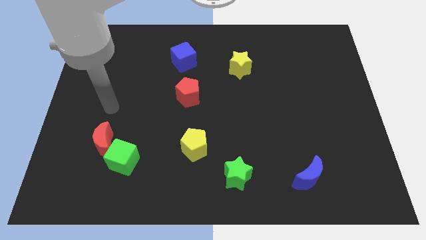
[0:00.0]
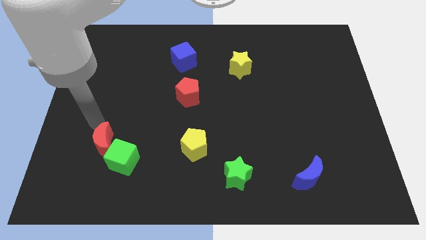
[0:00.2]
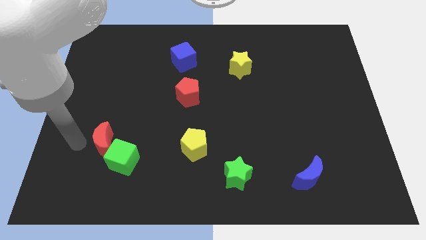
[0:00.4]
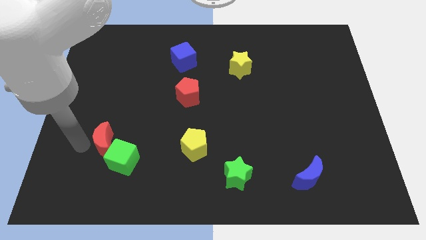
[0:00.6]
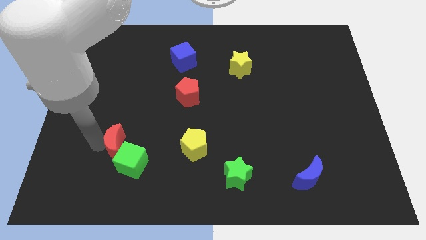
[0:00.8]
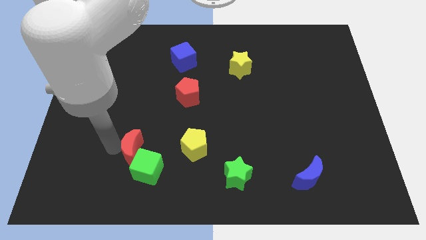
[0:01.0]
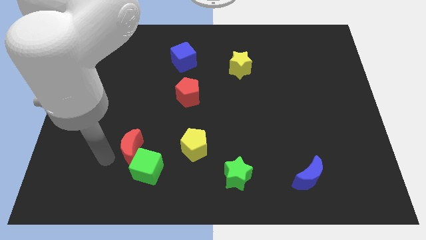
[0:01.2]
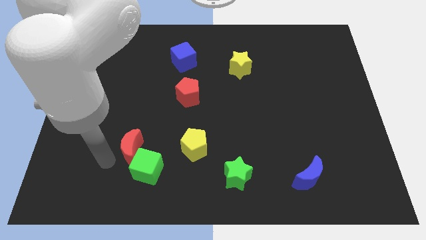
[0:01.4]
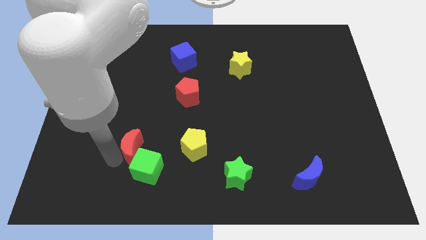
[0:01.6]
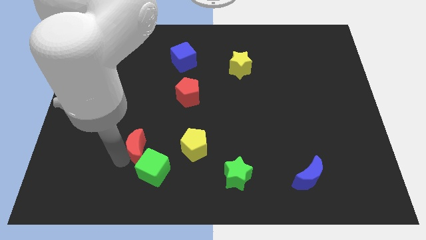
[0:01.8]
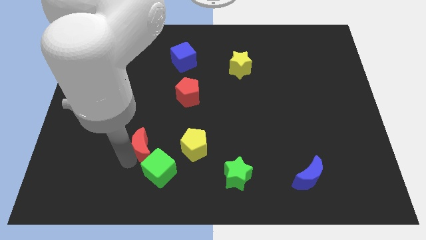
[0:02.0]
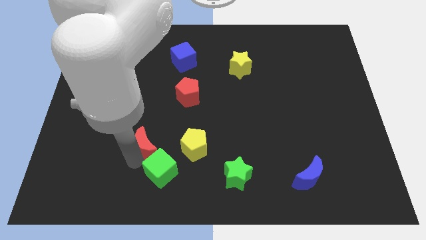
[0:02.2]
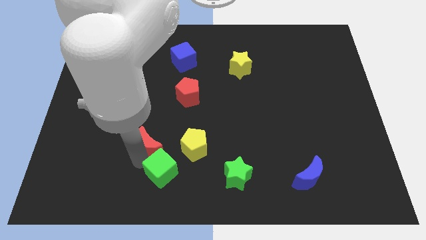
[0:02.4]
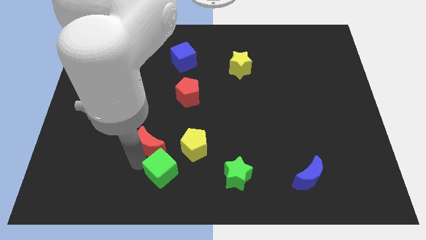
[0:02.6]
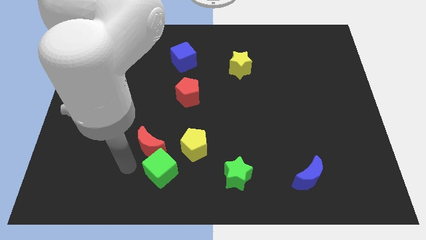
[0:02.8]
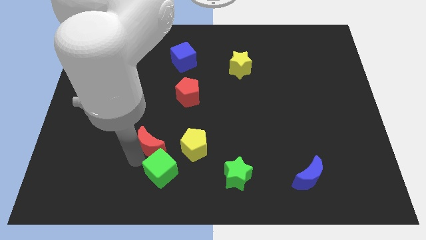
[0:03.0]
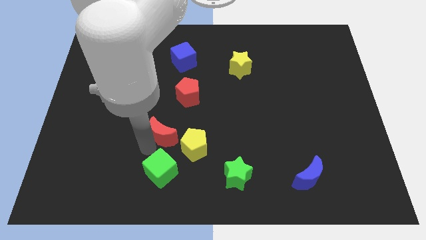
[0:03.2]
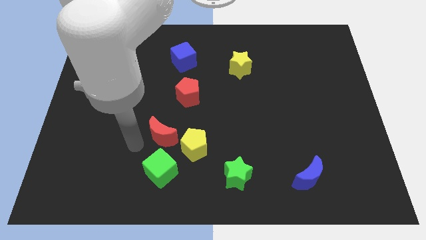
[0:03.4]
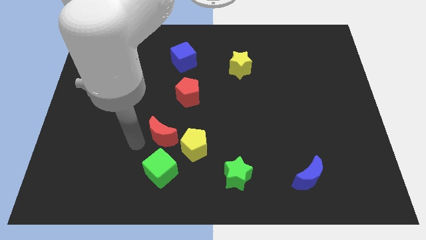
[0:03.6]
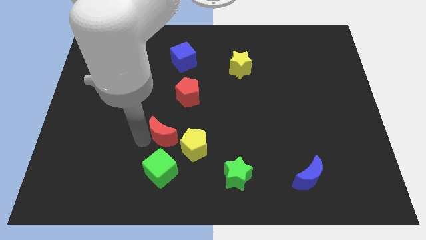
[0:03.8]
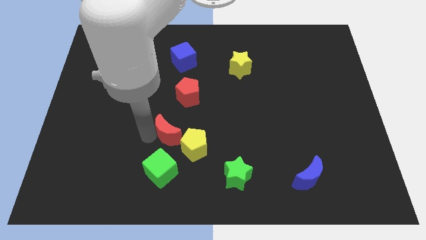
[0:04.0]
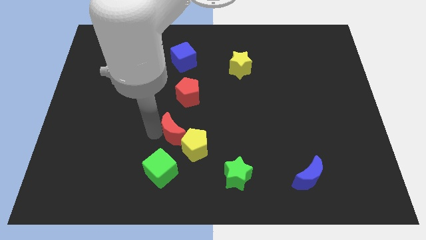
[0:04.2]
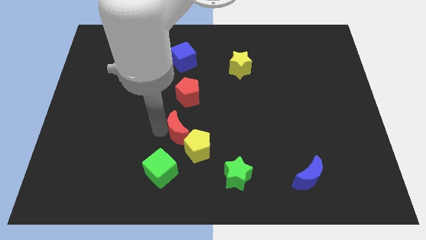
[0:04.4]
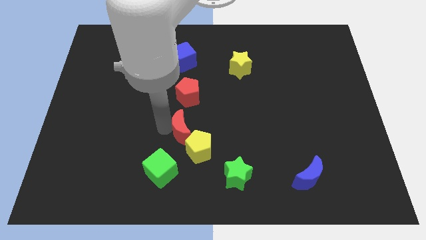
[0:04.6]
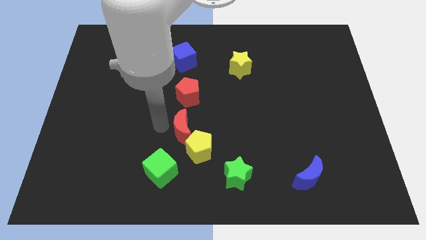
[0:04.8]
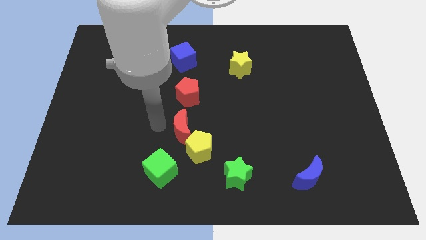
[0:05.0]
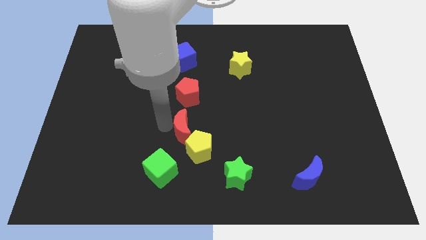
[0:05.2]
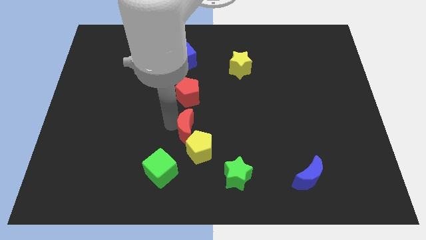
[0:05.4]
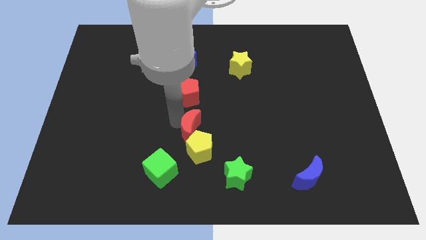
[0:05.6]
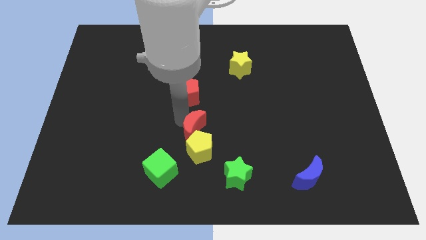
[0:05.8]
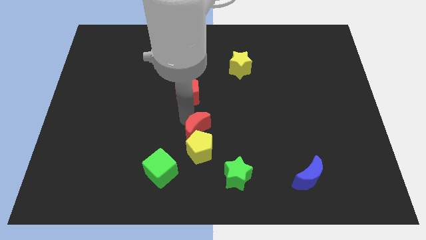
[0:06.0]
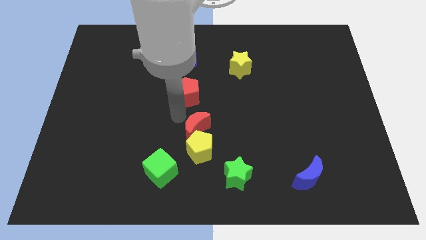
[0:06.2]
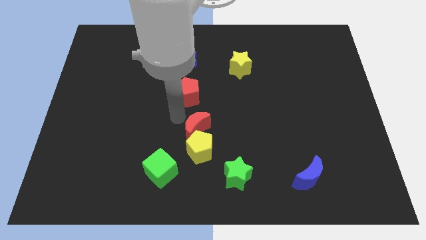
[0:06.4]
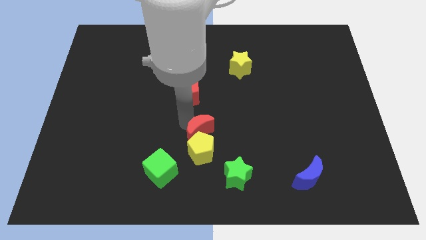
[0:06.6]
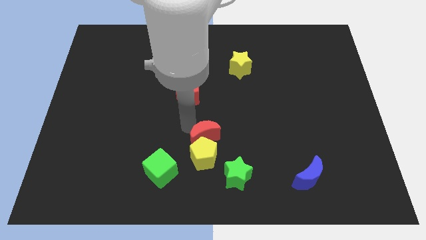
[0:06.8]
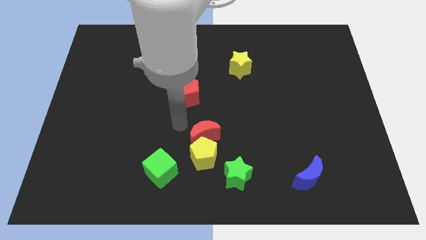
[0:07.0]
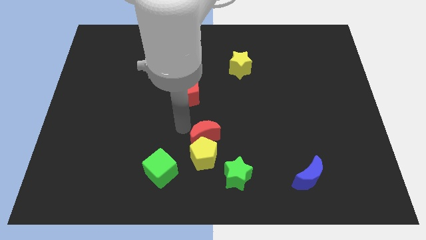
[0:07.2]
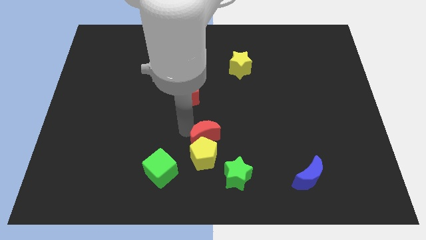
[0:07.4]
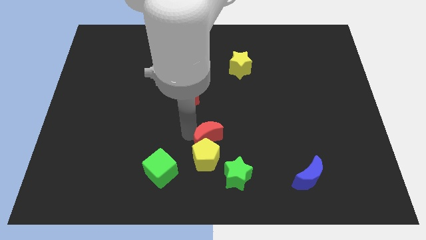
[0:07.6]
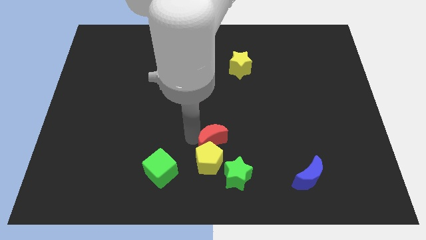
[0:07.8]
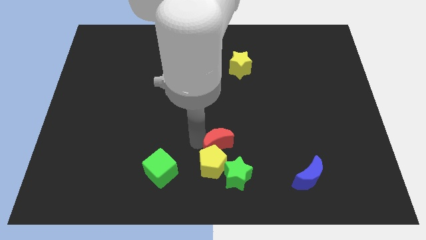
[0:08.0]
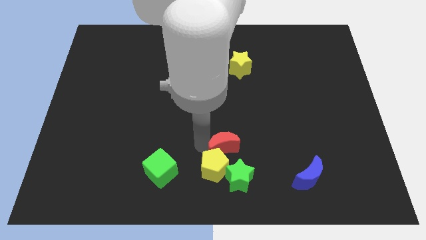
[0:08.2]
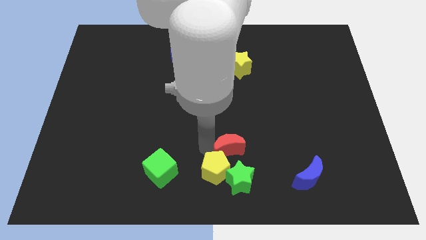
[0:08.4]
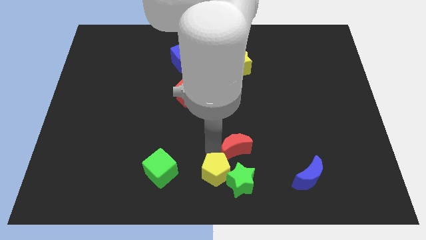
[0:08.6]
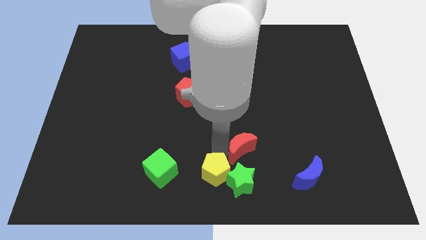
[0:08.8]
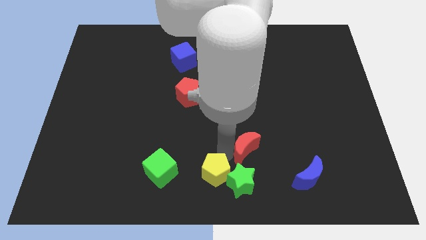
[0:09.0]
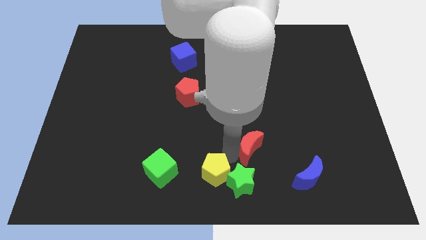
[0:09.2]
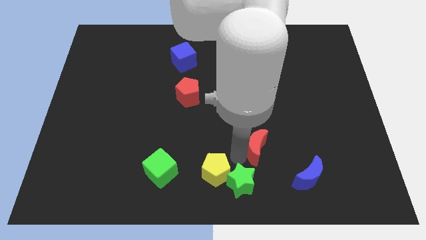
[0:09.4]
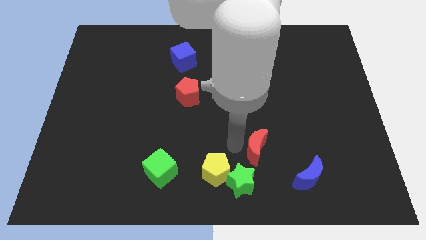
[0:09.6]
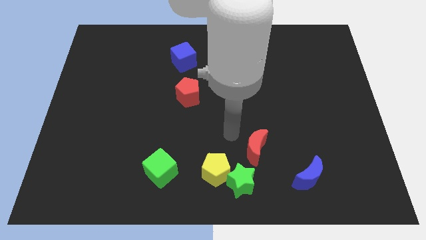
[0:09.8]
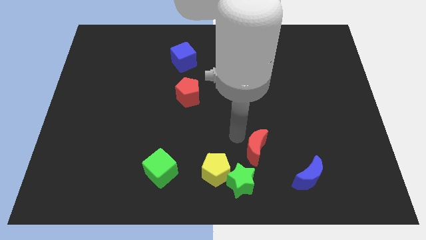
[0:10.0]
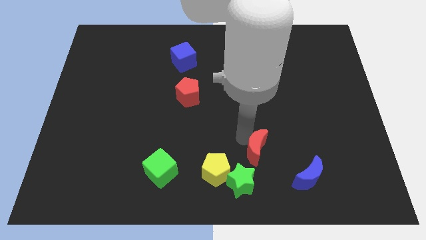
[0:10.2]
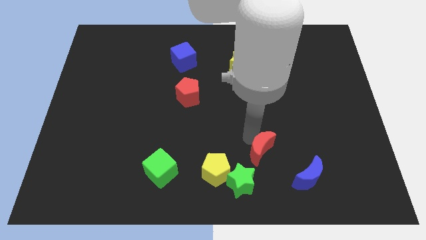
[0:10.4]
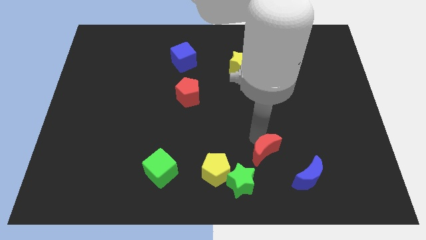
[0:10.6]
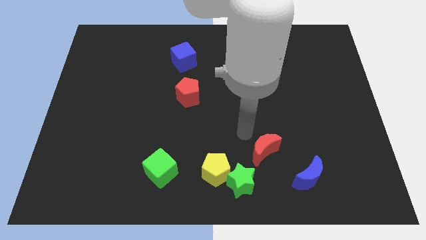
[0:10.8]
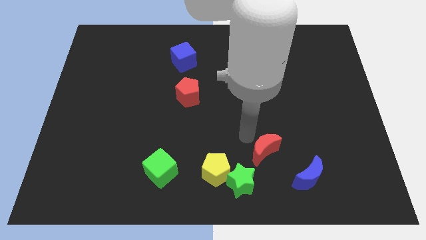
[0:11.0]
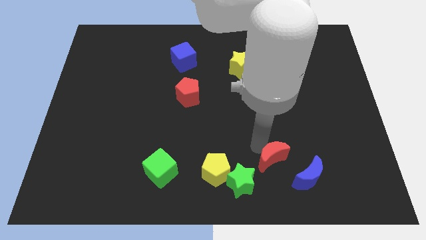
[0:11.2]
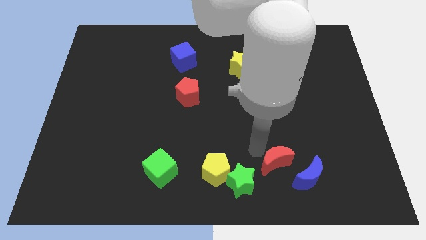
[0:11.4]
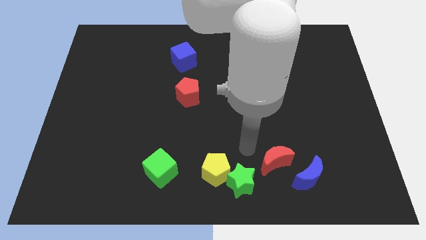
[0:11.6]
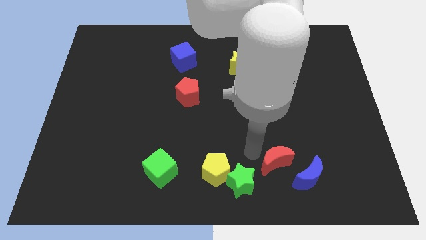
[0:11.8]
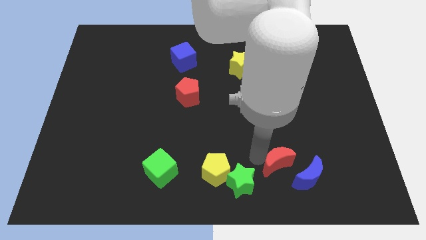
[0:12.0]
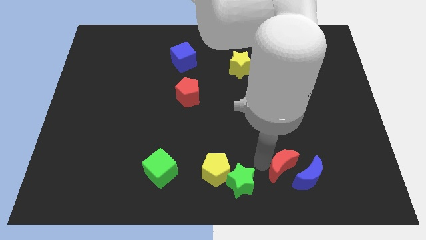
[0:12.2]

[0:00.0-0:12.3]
move the red moon next to the blue moon

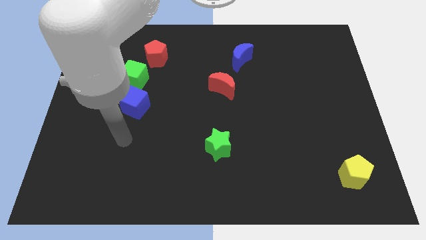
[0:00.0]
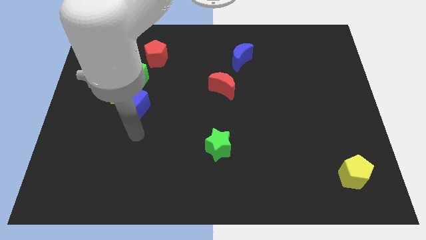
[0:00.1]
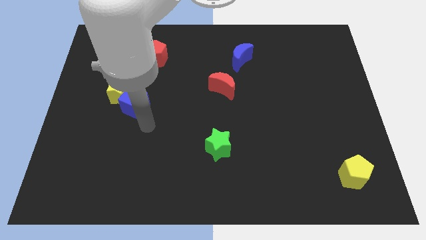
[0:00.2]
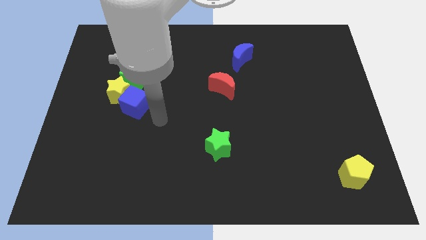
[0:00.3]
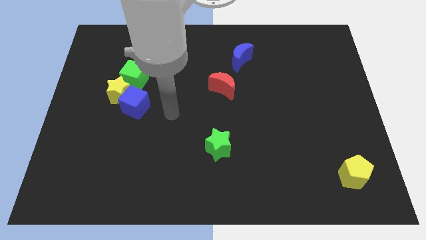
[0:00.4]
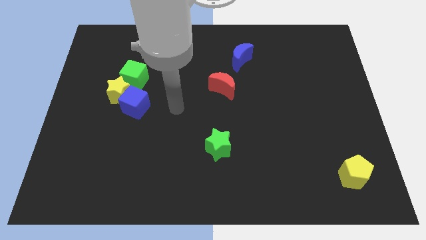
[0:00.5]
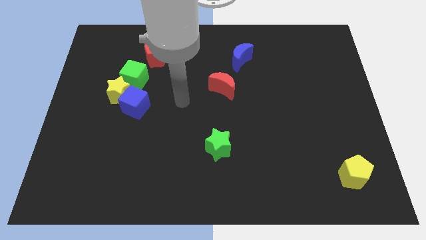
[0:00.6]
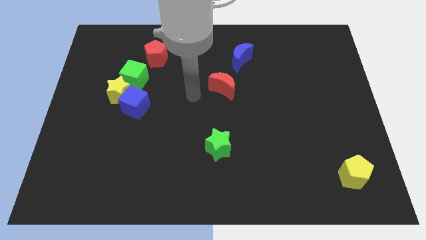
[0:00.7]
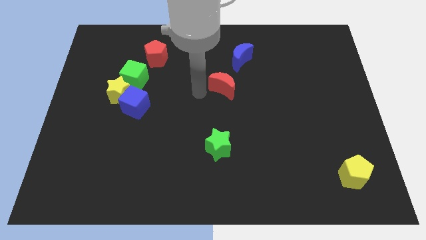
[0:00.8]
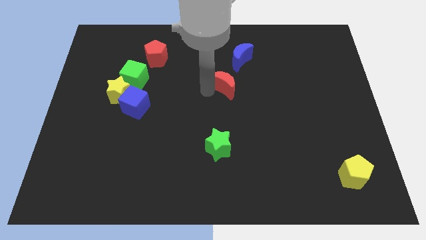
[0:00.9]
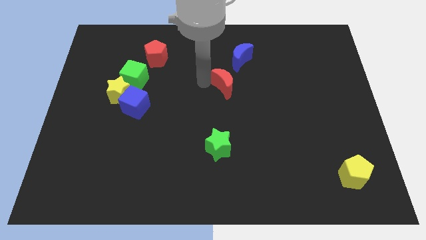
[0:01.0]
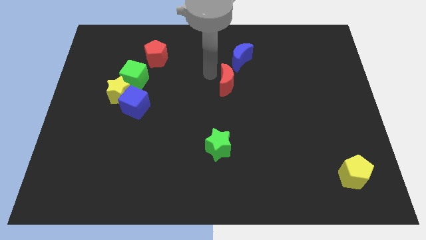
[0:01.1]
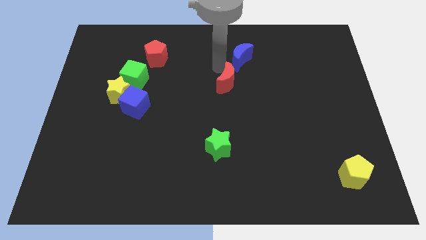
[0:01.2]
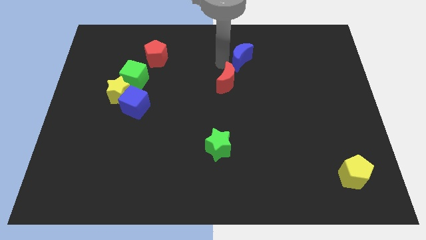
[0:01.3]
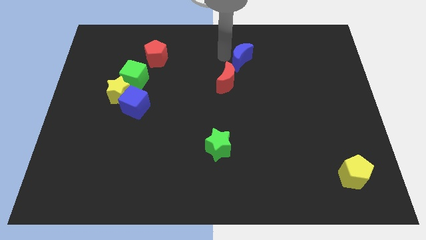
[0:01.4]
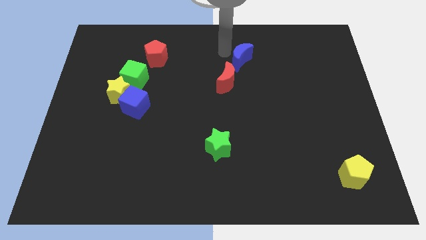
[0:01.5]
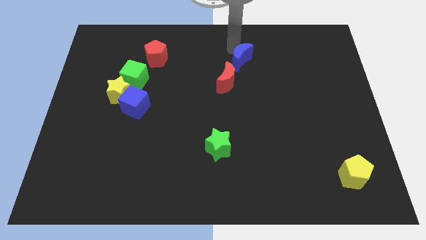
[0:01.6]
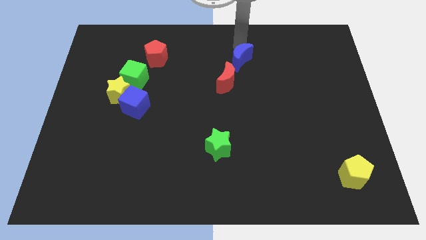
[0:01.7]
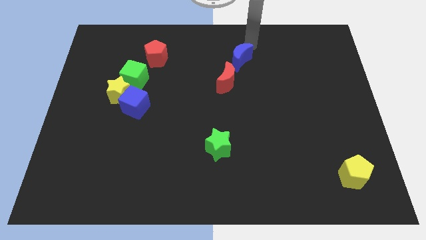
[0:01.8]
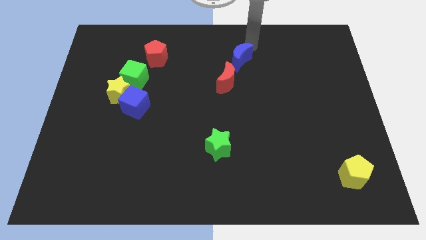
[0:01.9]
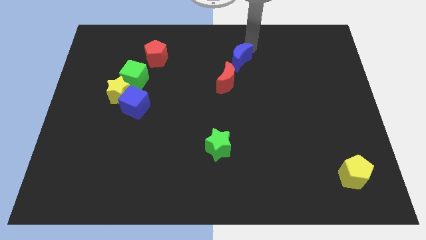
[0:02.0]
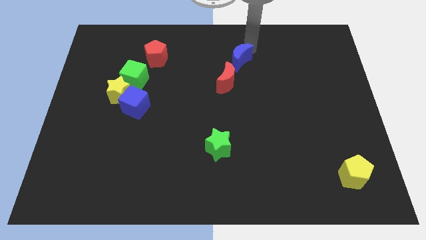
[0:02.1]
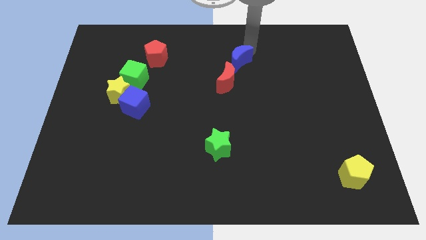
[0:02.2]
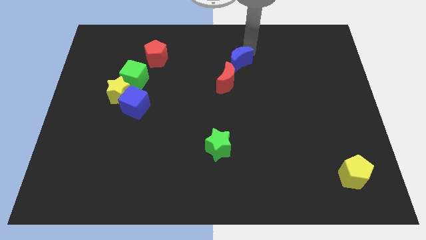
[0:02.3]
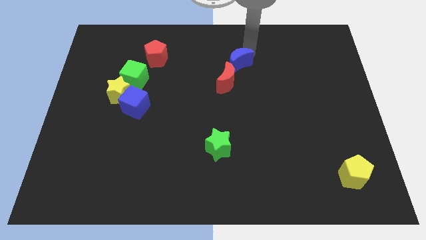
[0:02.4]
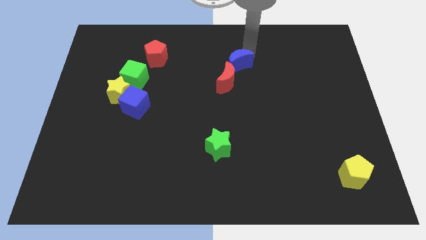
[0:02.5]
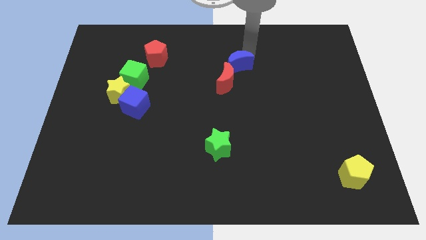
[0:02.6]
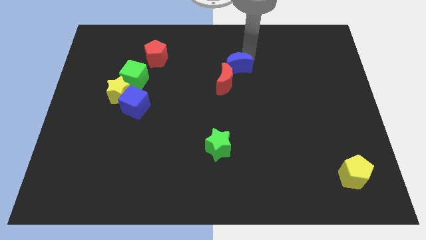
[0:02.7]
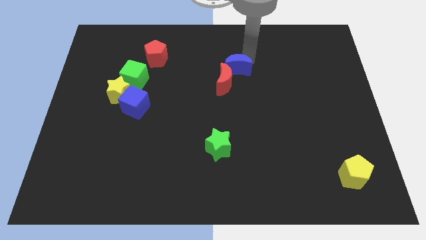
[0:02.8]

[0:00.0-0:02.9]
push the blue moon towards the red moon
